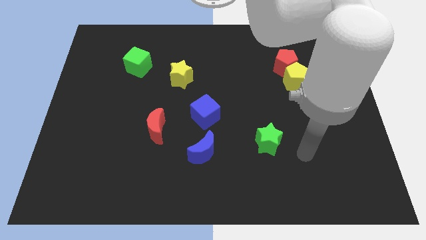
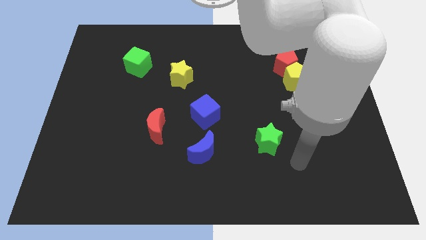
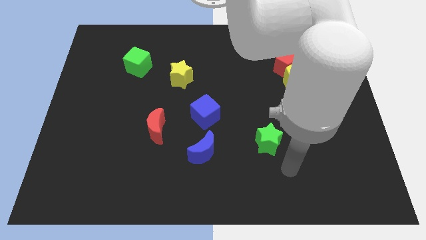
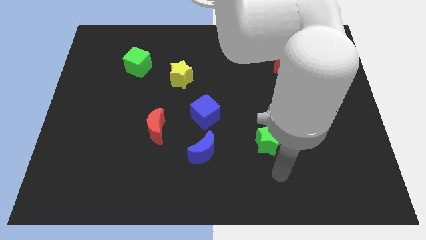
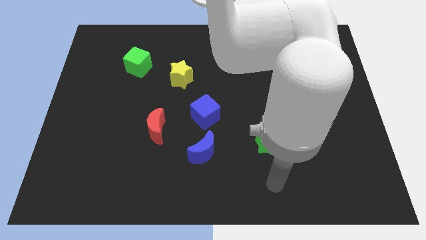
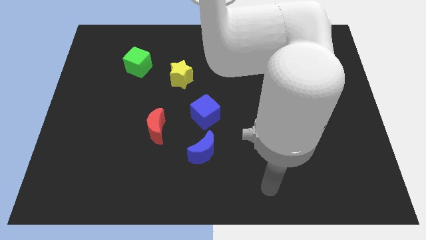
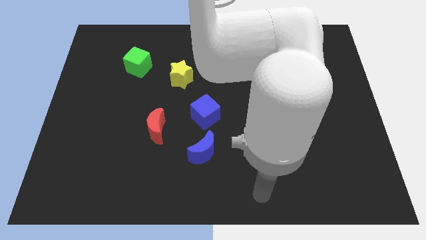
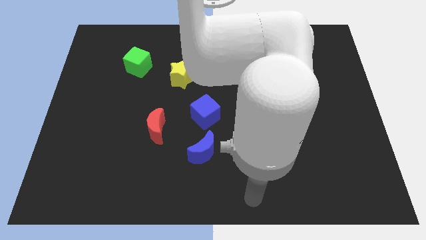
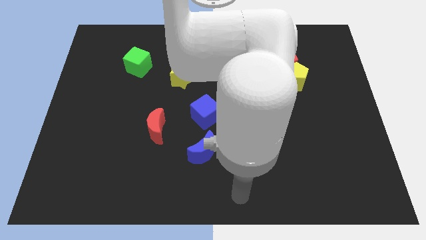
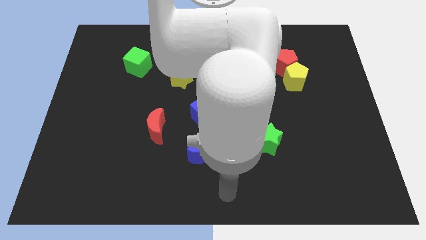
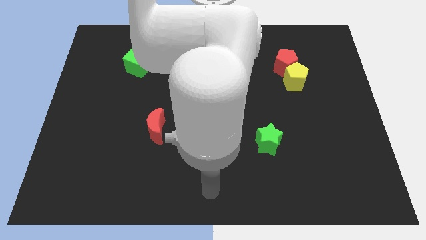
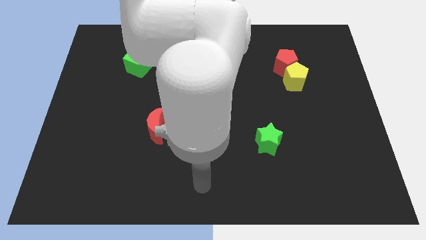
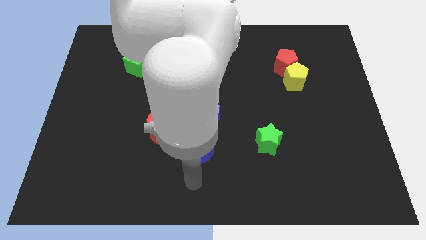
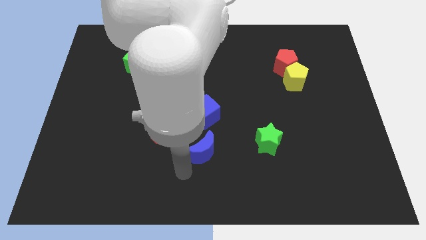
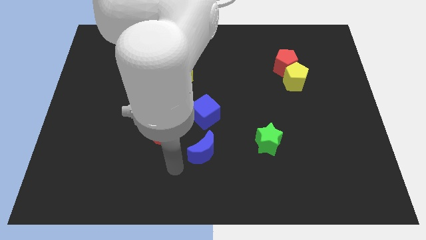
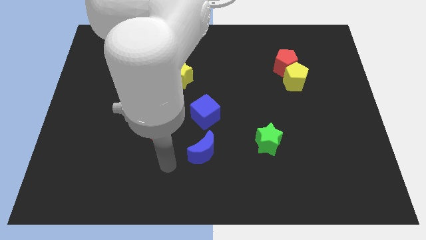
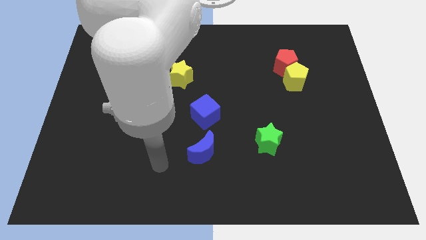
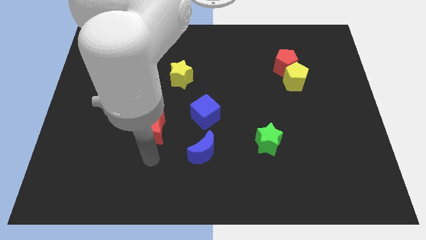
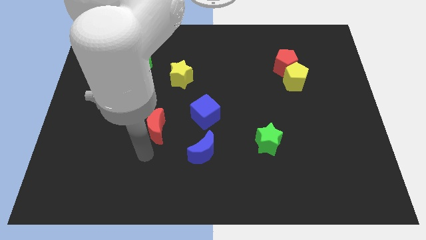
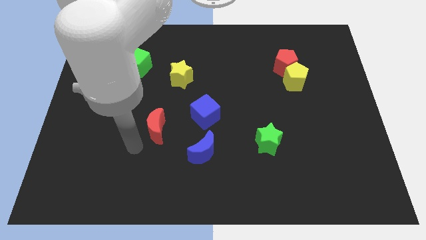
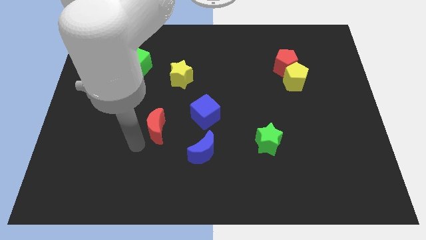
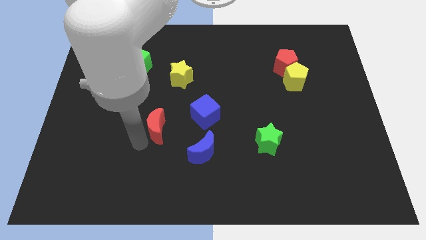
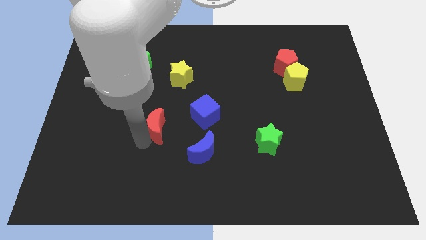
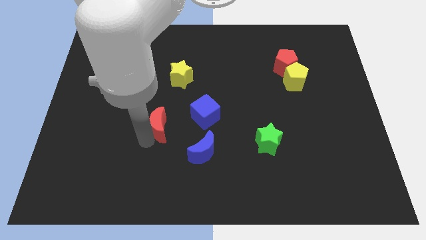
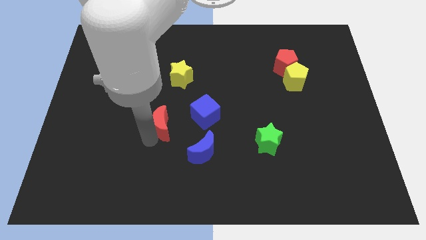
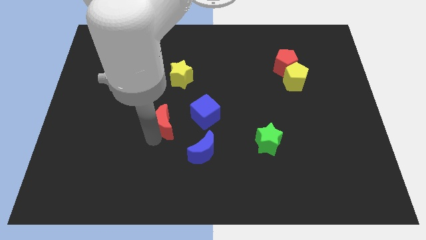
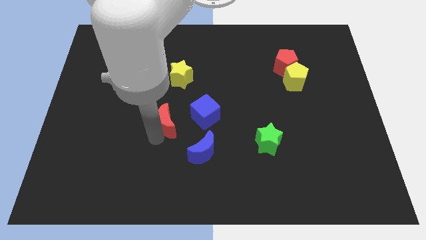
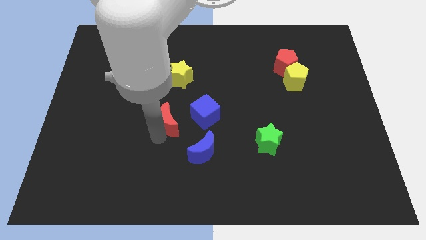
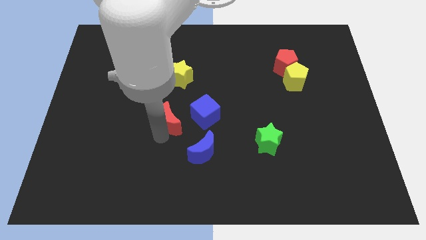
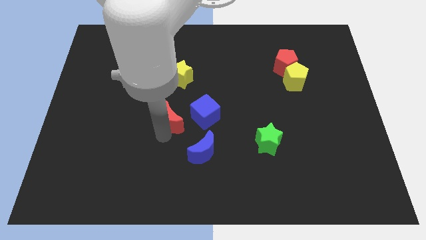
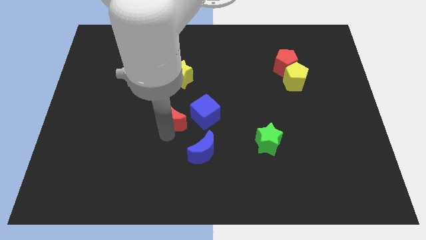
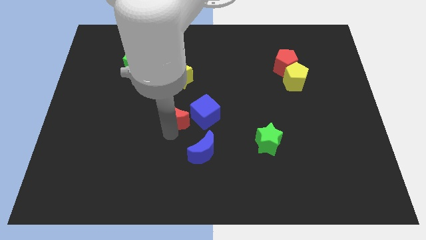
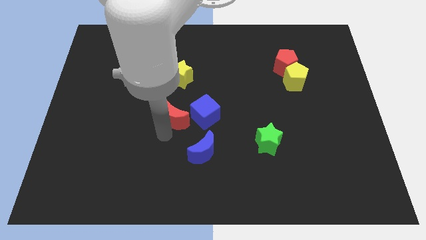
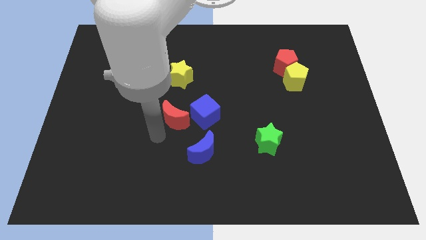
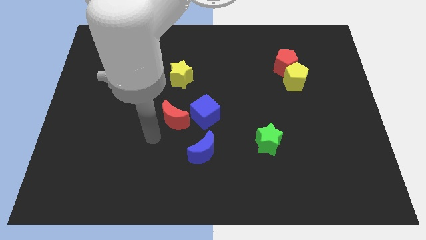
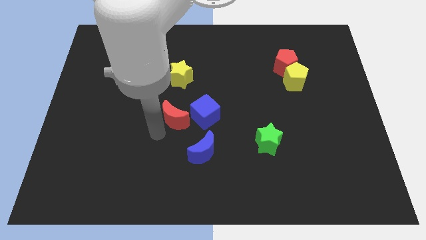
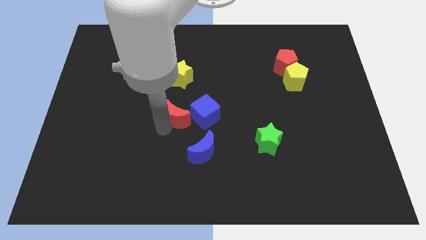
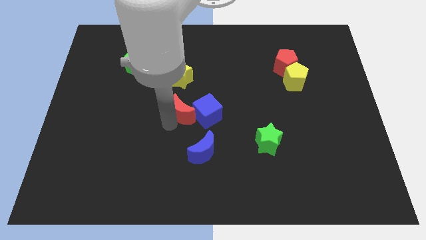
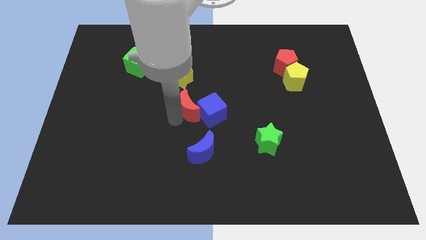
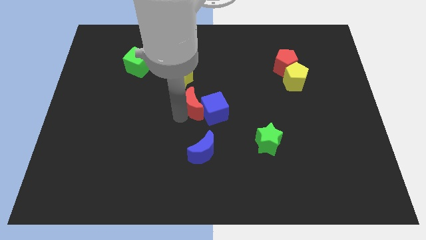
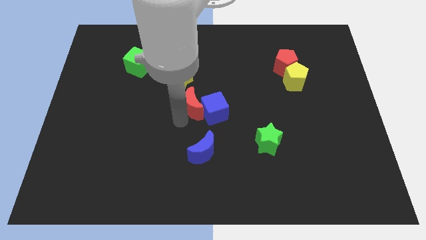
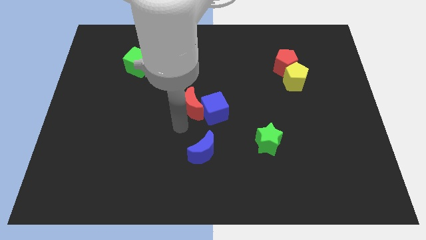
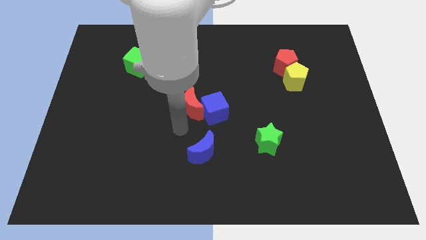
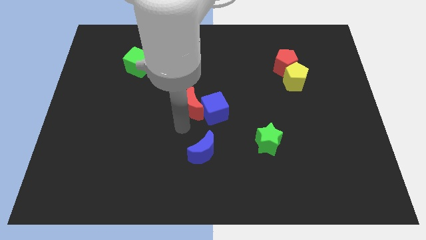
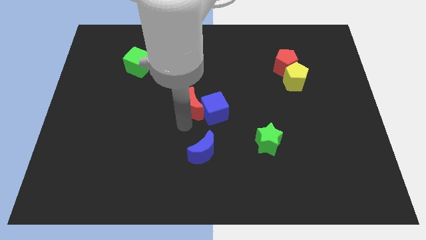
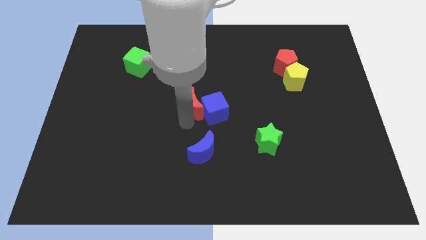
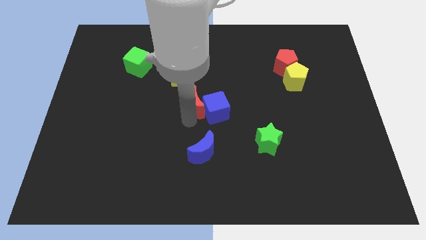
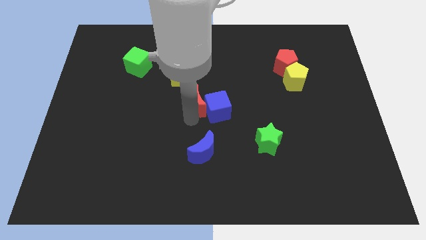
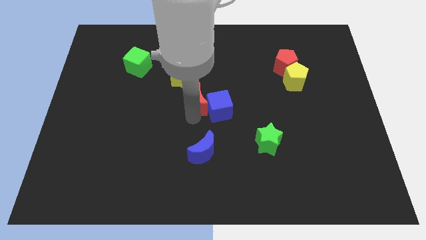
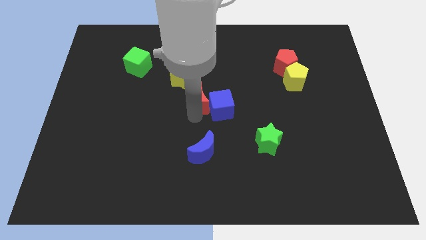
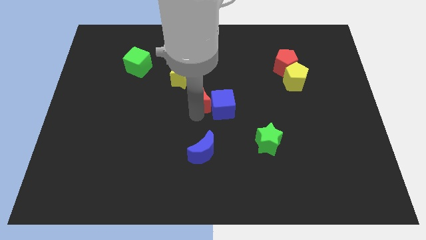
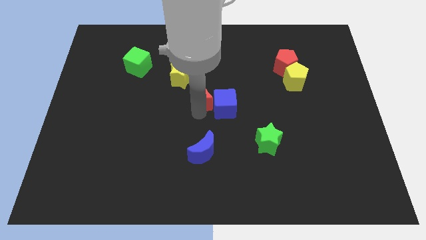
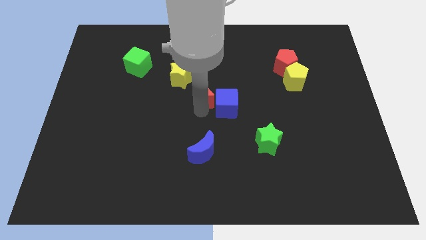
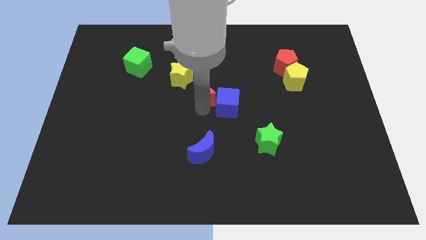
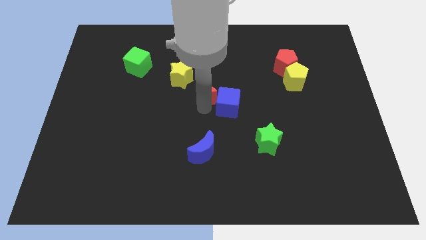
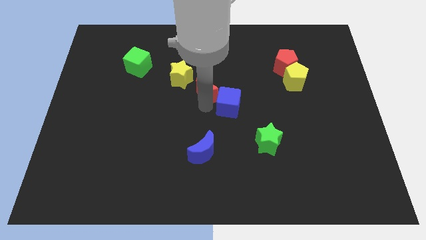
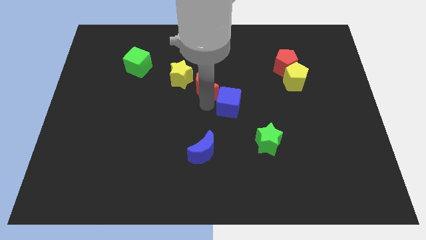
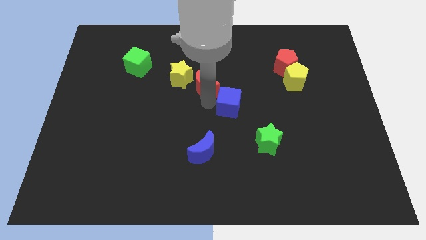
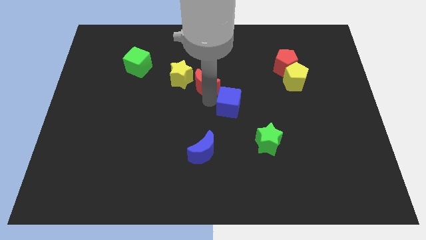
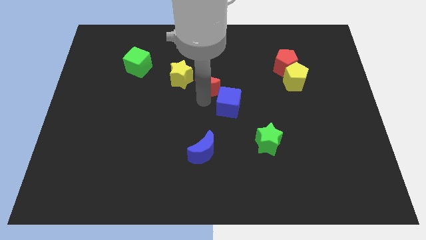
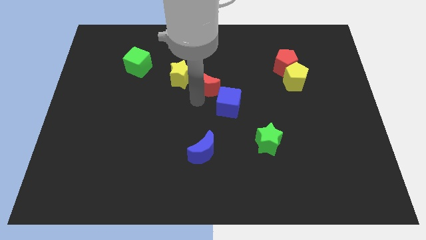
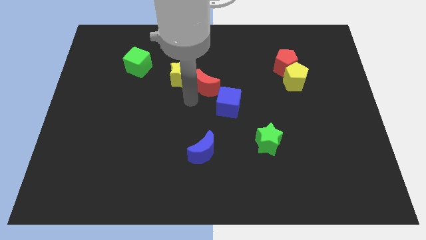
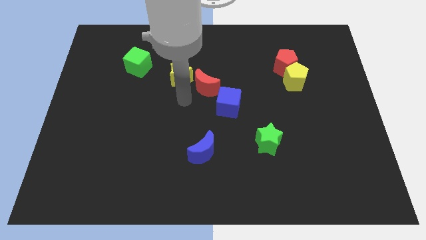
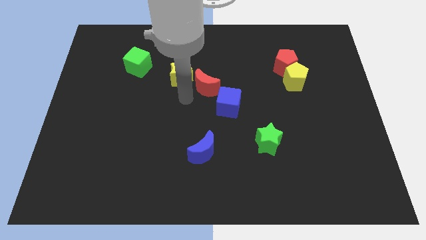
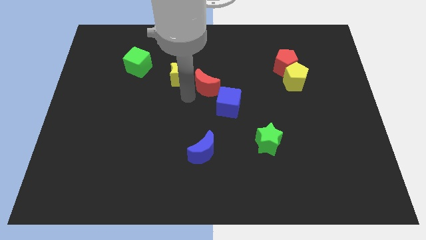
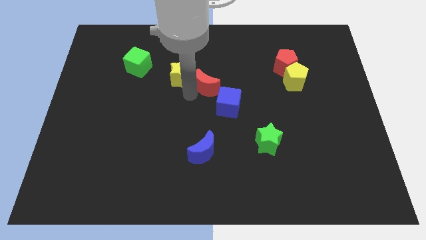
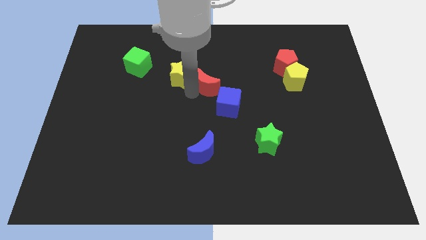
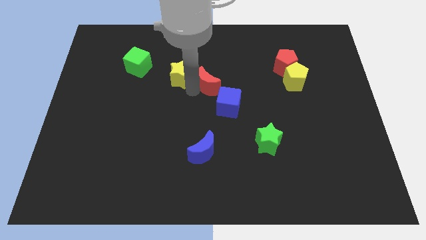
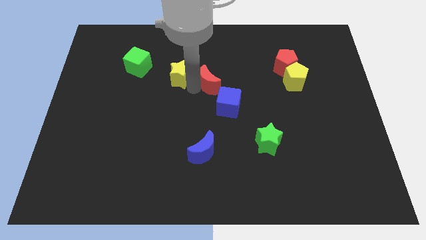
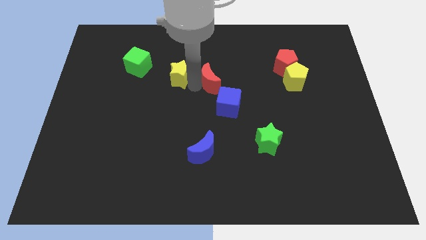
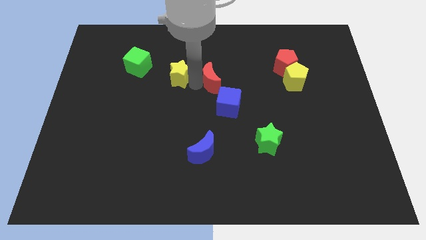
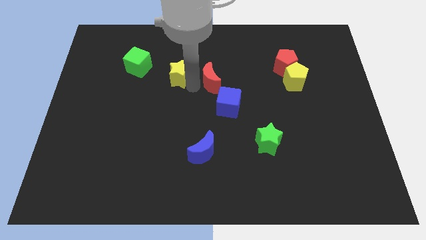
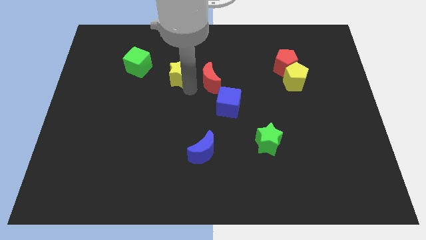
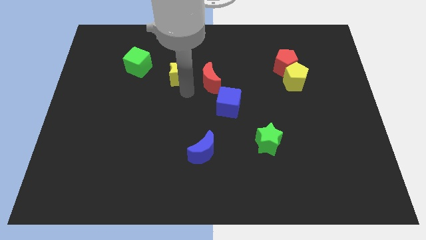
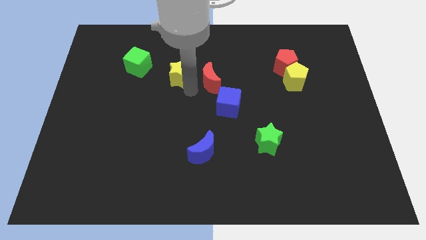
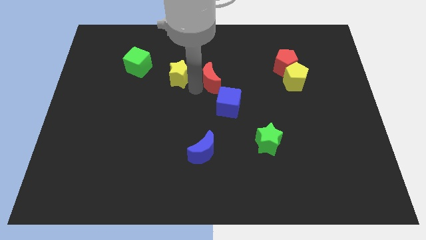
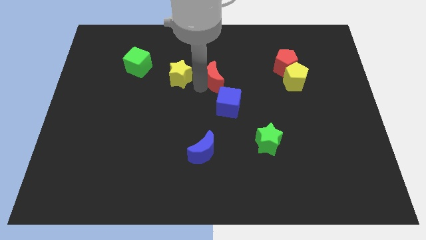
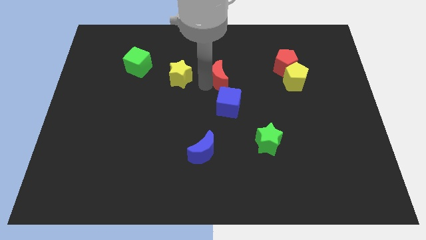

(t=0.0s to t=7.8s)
move the red moon up and right diagonally
